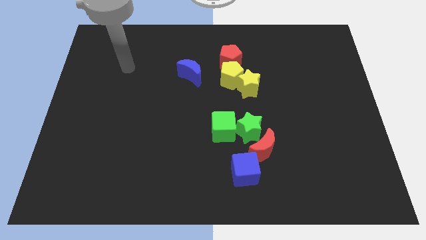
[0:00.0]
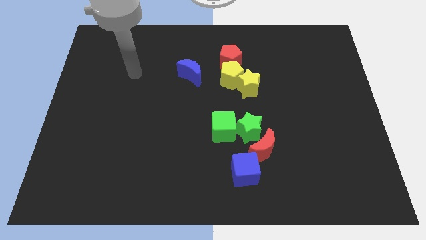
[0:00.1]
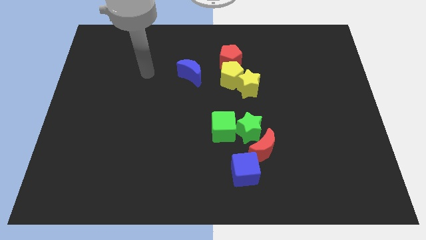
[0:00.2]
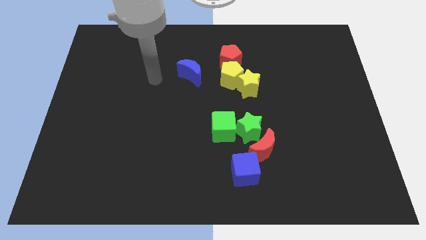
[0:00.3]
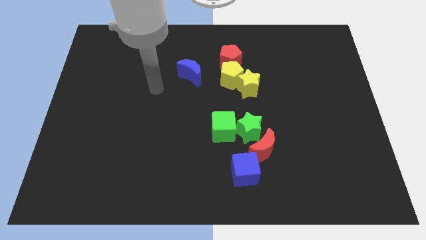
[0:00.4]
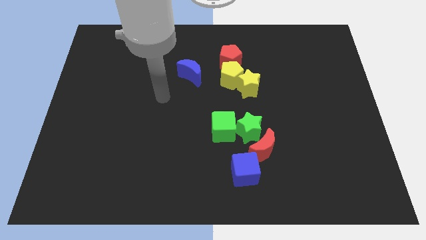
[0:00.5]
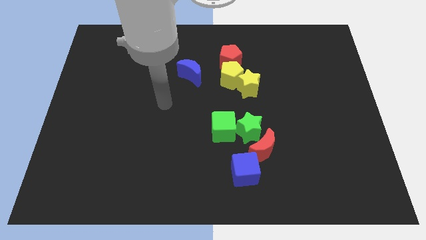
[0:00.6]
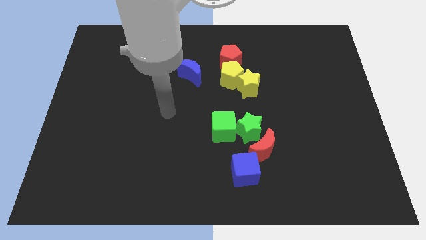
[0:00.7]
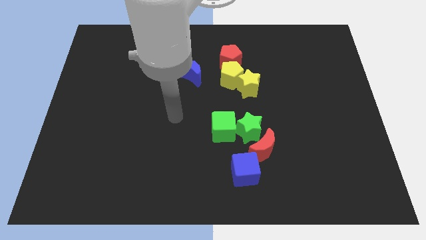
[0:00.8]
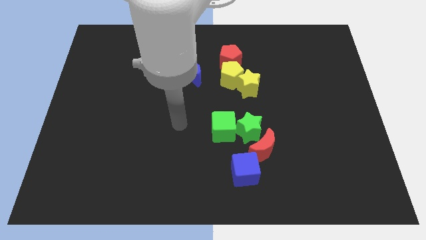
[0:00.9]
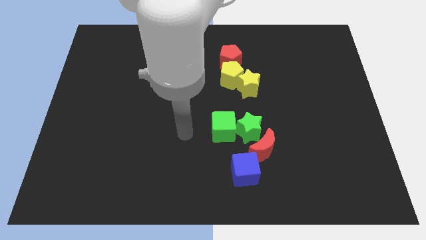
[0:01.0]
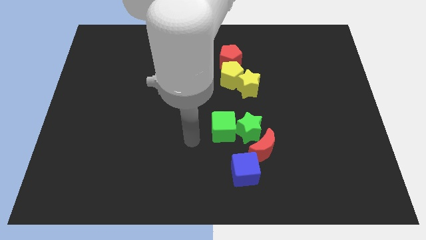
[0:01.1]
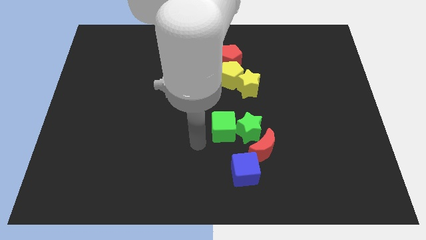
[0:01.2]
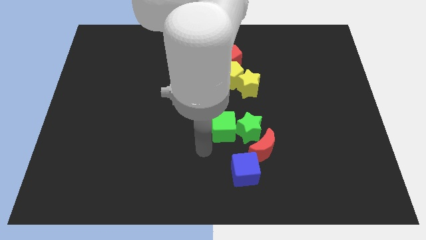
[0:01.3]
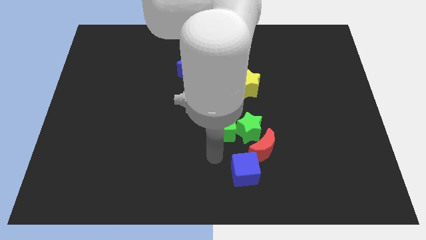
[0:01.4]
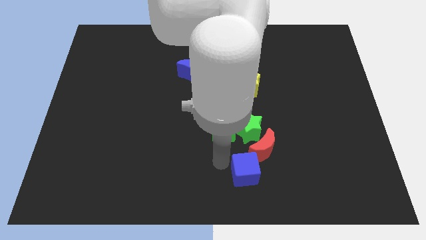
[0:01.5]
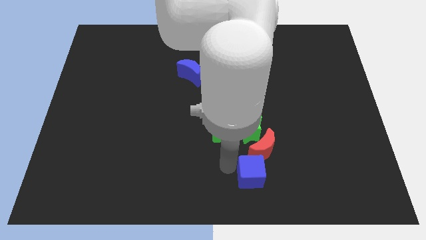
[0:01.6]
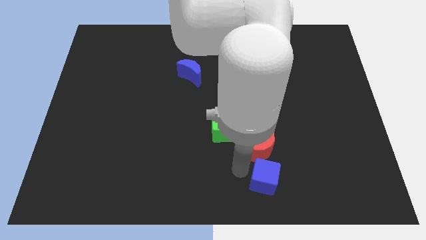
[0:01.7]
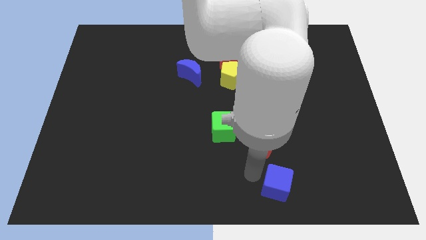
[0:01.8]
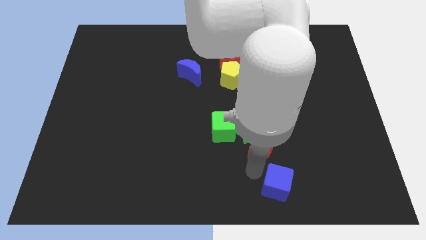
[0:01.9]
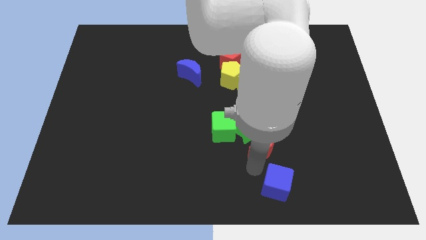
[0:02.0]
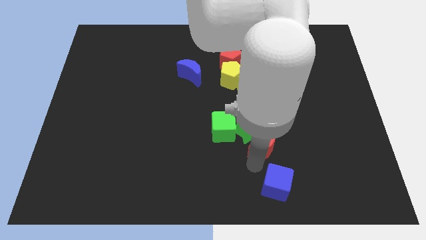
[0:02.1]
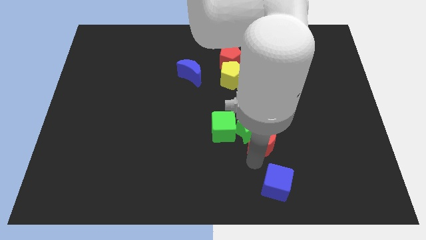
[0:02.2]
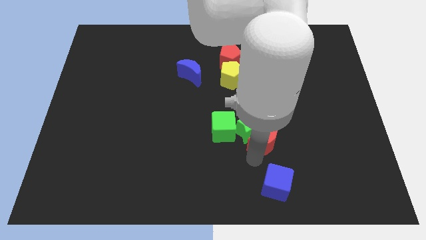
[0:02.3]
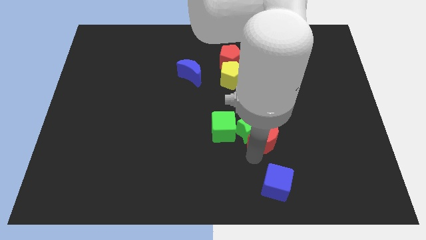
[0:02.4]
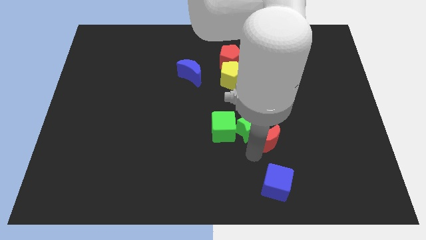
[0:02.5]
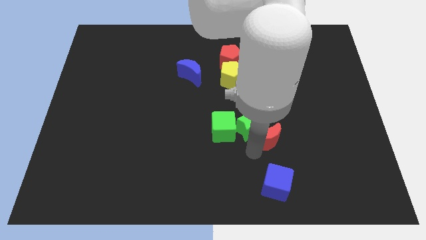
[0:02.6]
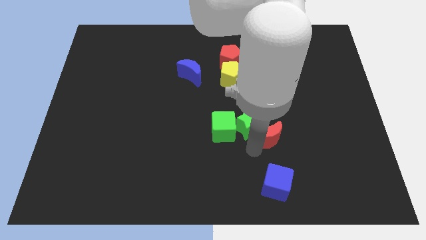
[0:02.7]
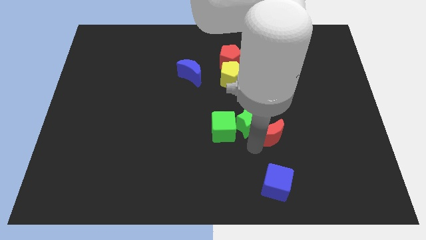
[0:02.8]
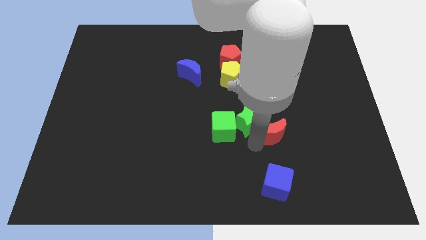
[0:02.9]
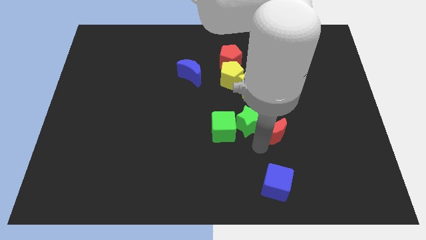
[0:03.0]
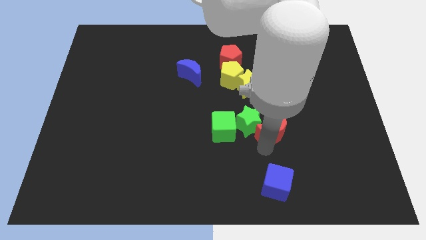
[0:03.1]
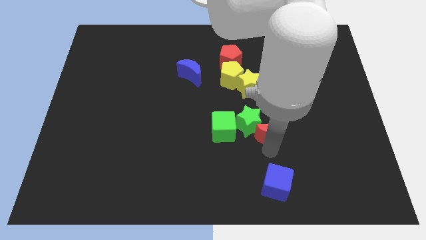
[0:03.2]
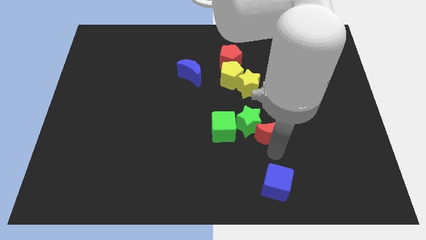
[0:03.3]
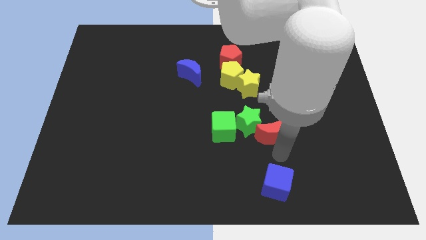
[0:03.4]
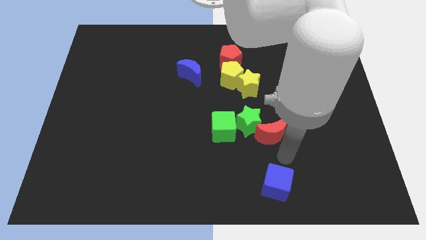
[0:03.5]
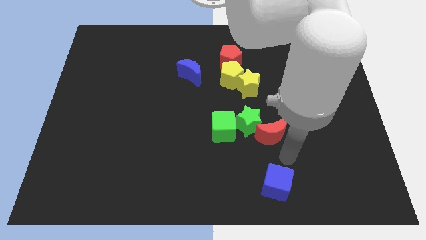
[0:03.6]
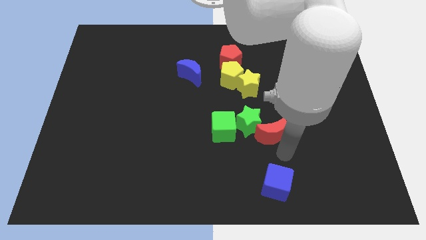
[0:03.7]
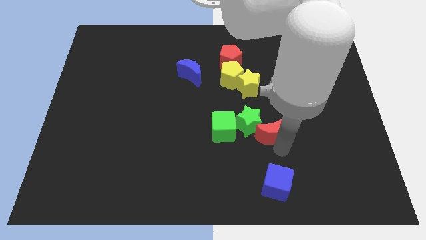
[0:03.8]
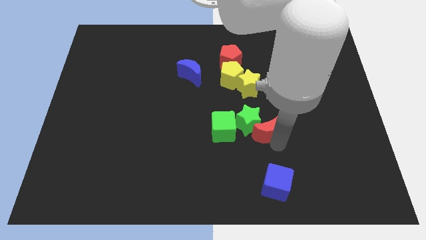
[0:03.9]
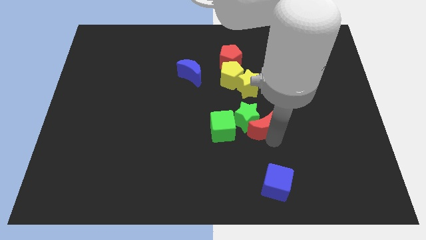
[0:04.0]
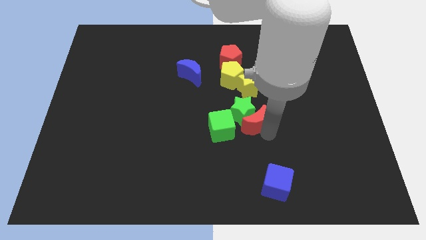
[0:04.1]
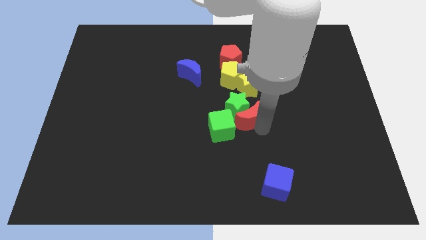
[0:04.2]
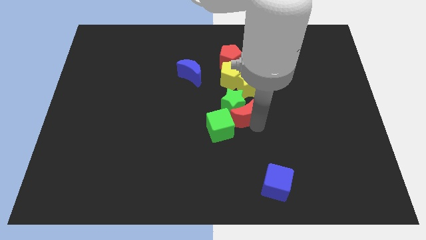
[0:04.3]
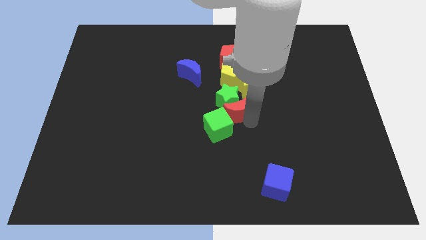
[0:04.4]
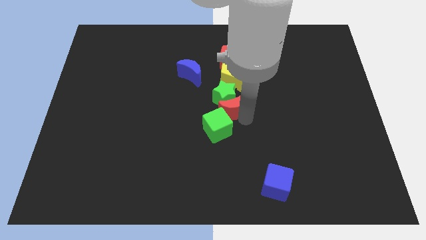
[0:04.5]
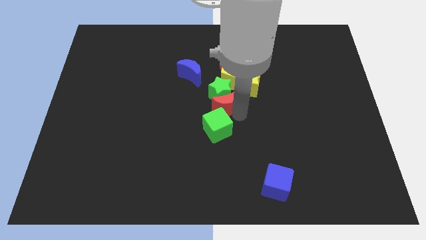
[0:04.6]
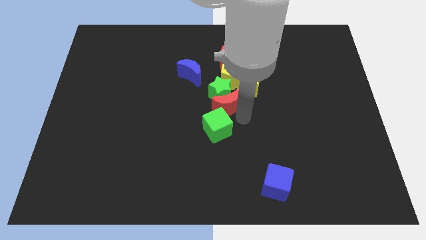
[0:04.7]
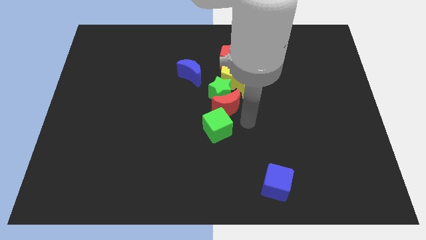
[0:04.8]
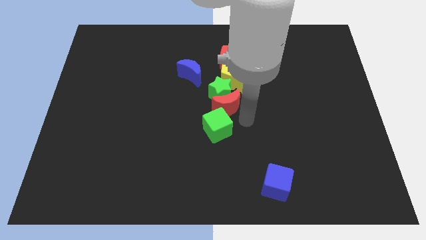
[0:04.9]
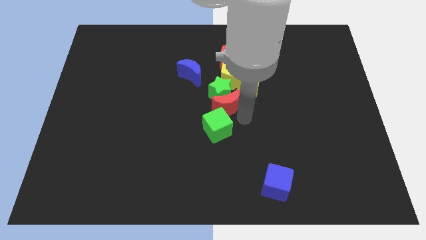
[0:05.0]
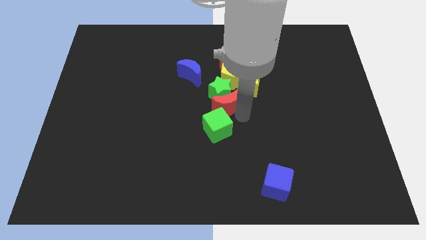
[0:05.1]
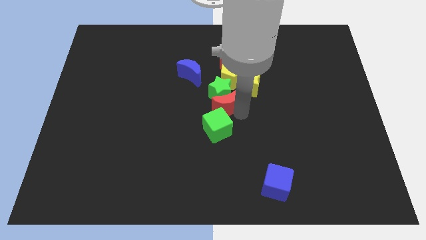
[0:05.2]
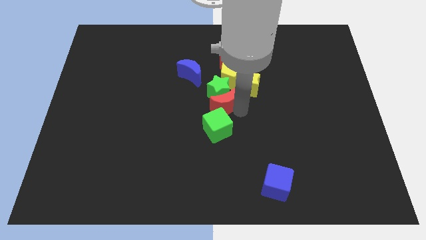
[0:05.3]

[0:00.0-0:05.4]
push the red moon diagonally down and to the left of the yellow pentagon

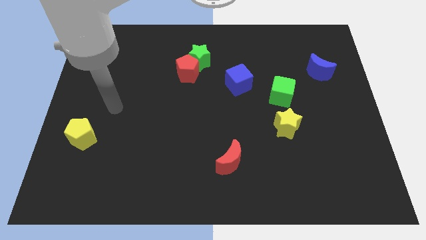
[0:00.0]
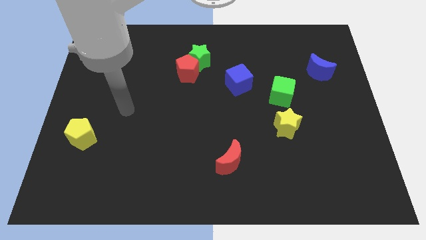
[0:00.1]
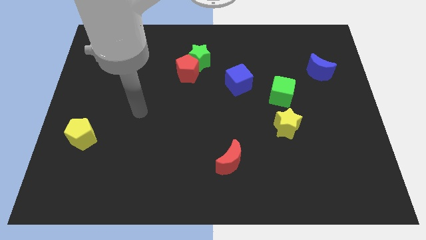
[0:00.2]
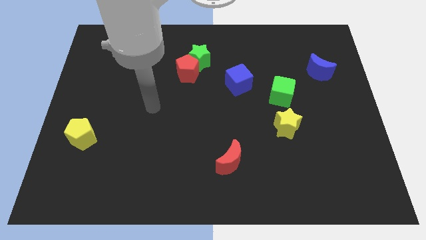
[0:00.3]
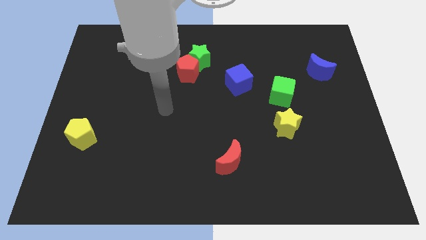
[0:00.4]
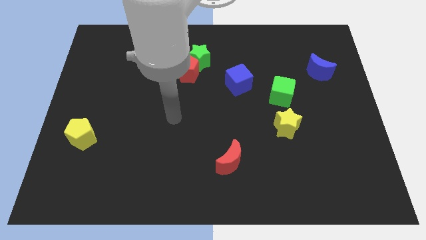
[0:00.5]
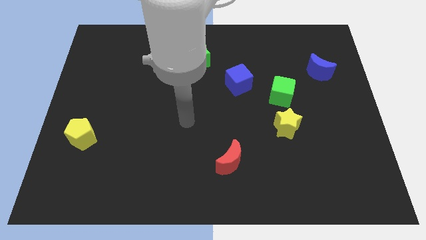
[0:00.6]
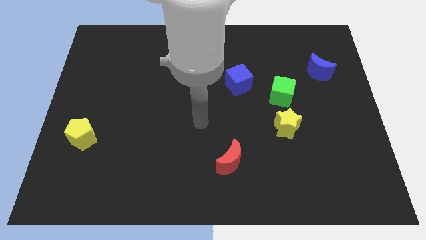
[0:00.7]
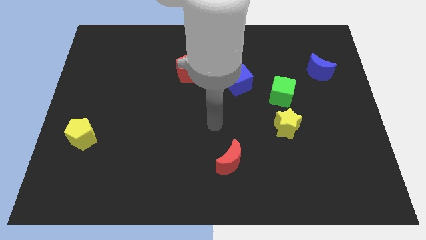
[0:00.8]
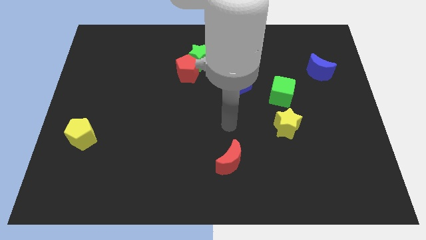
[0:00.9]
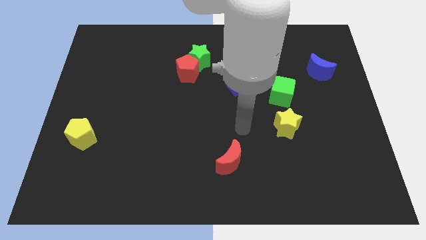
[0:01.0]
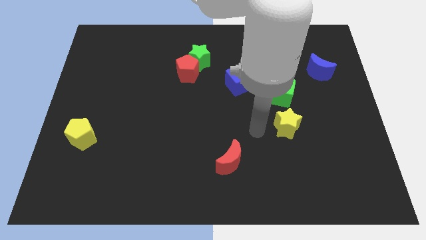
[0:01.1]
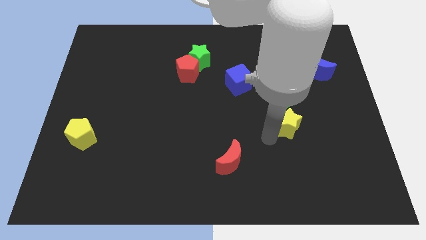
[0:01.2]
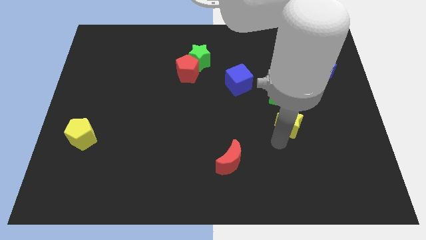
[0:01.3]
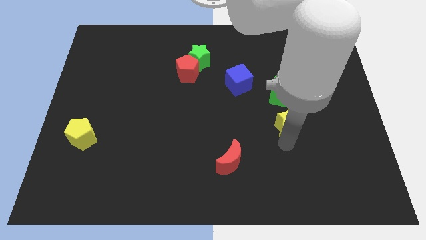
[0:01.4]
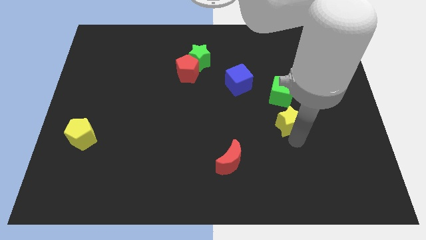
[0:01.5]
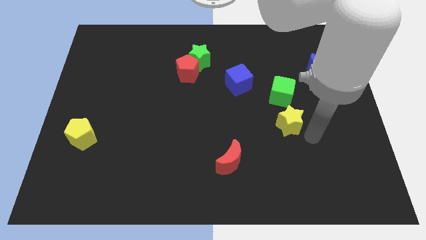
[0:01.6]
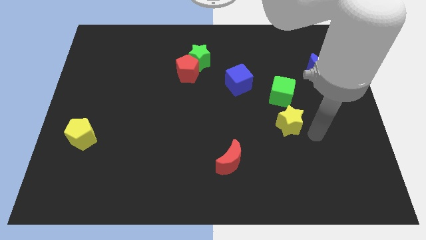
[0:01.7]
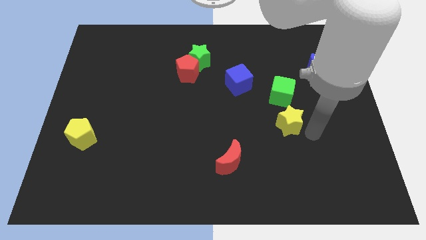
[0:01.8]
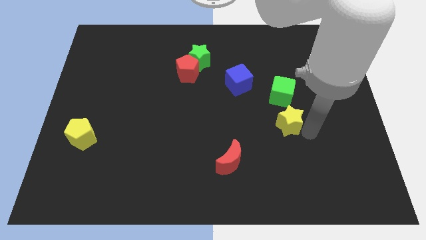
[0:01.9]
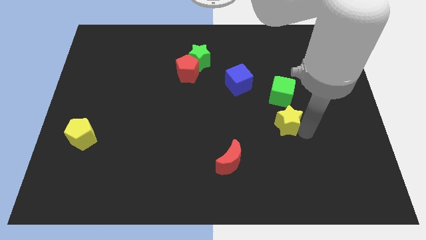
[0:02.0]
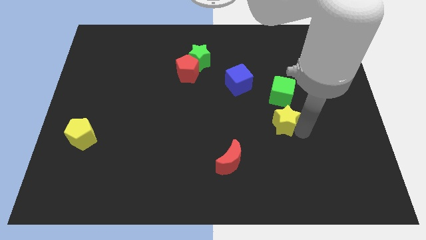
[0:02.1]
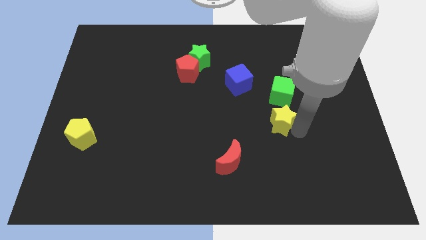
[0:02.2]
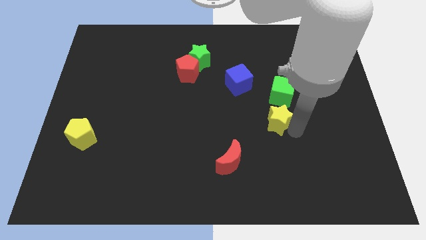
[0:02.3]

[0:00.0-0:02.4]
move the yellow star to the bottom left side of the green cube
